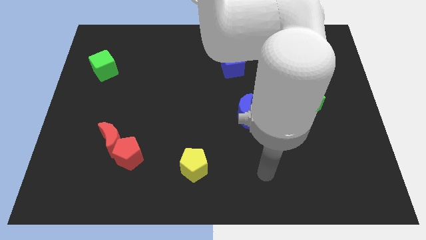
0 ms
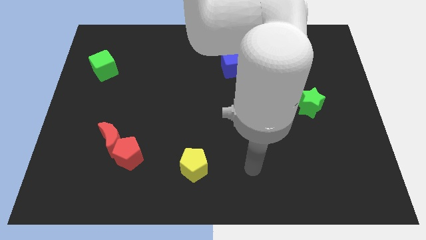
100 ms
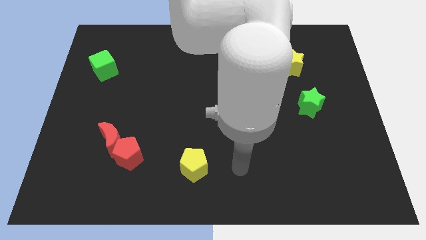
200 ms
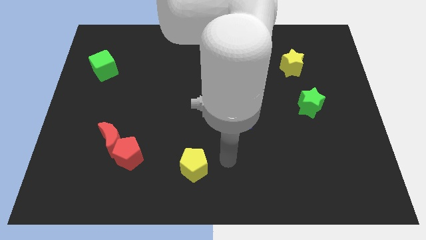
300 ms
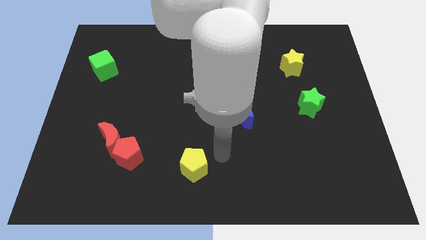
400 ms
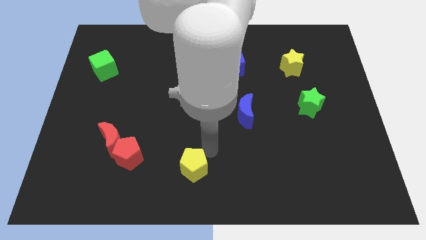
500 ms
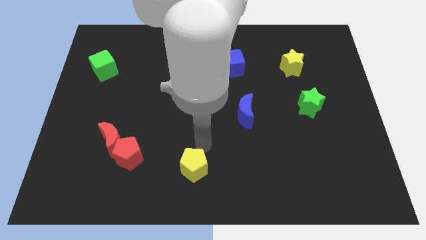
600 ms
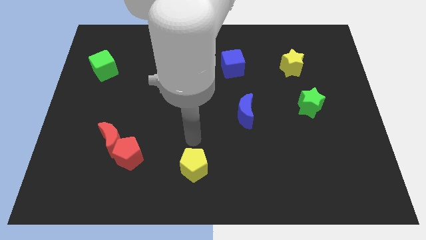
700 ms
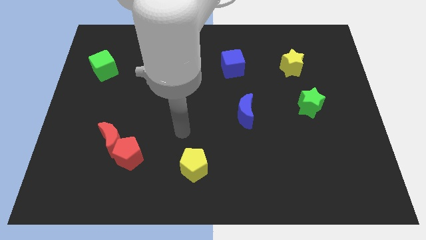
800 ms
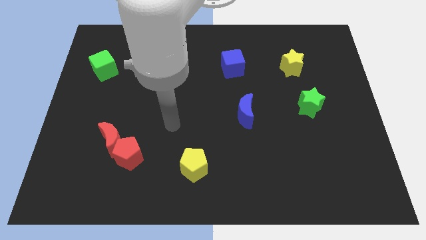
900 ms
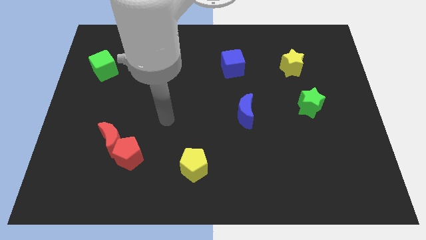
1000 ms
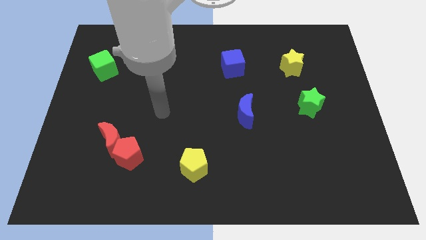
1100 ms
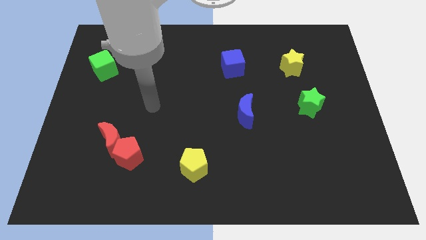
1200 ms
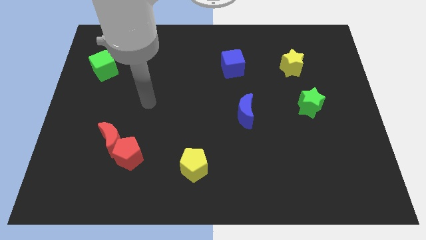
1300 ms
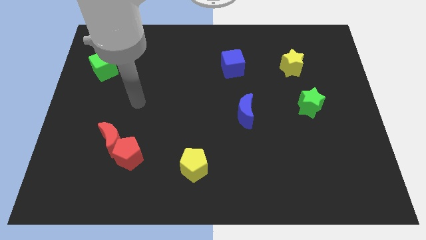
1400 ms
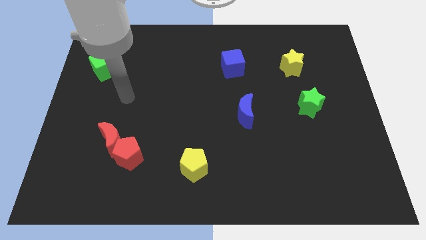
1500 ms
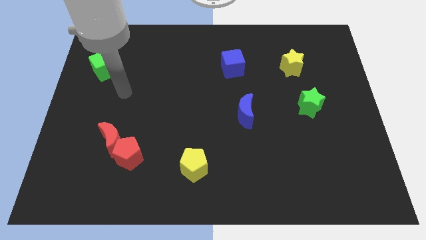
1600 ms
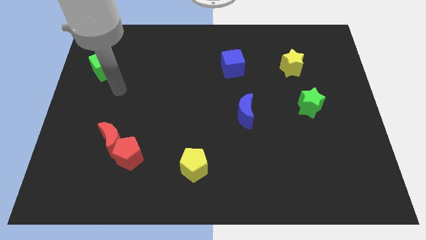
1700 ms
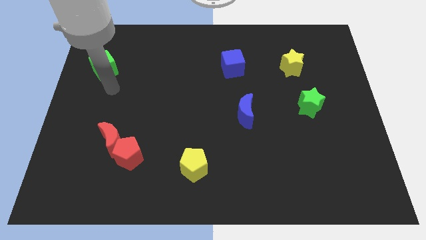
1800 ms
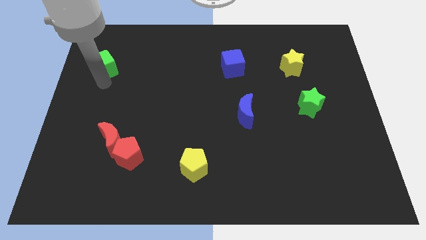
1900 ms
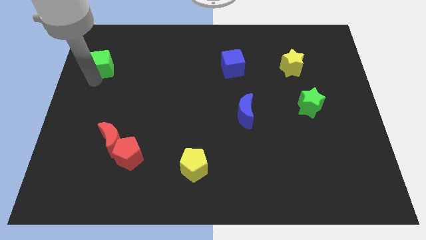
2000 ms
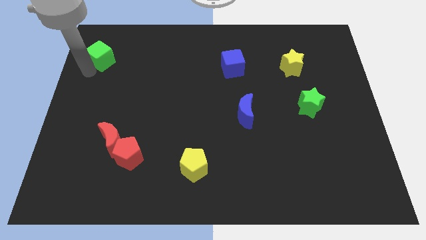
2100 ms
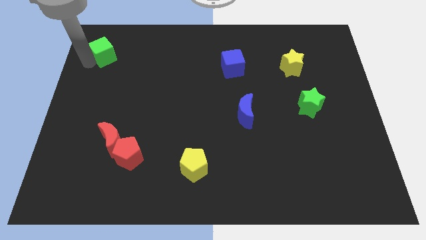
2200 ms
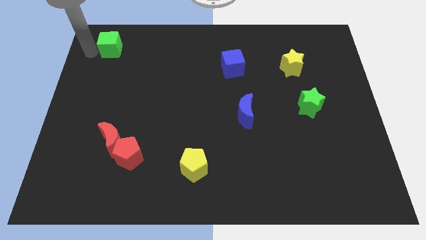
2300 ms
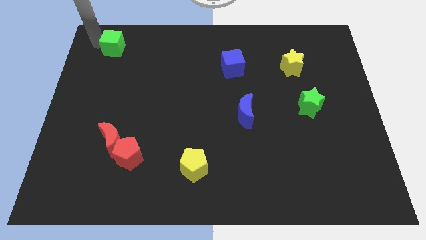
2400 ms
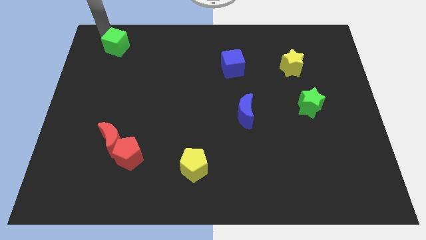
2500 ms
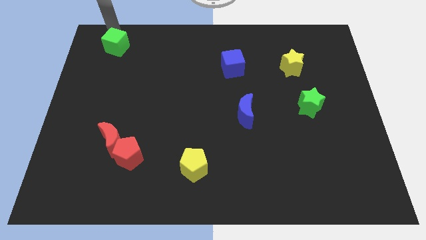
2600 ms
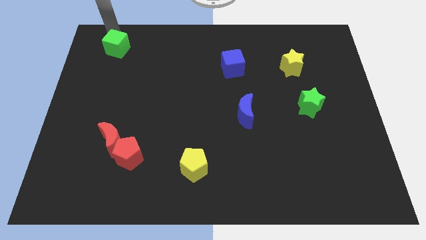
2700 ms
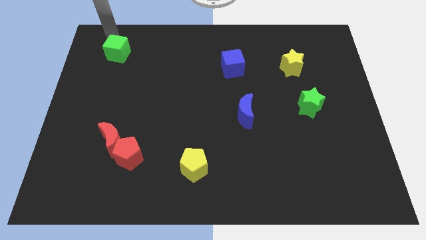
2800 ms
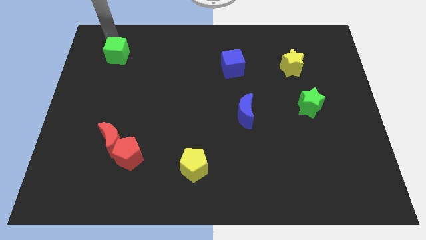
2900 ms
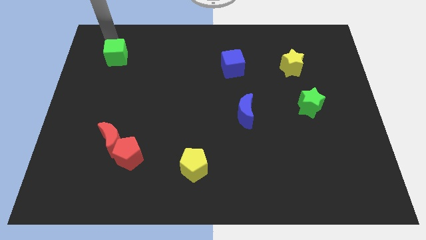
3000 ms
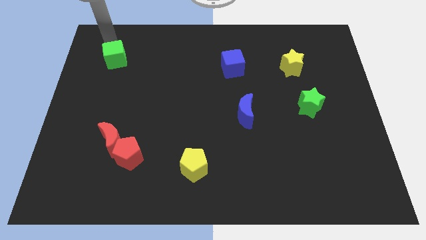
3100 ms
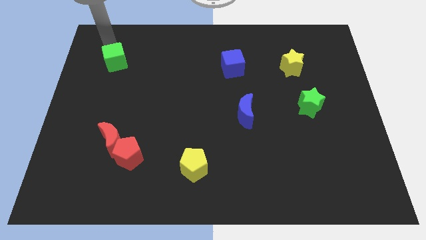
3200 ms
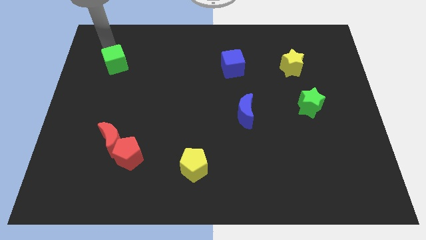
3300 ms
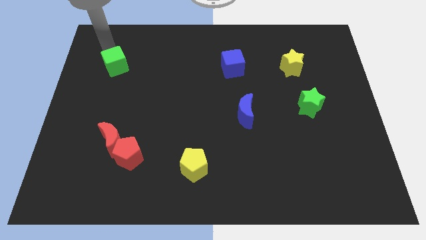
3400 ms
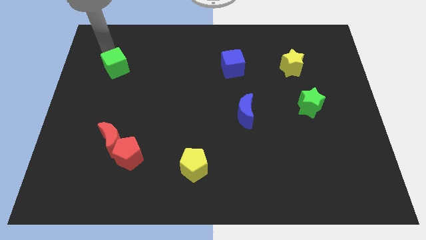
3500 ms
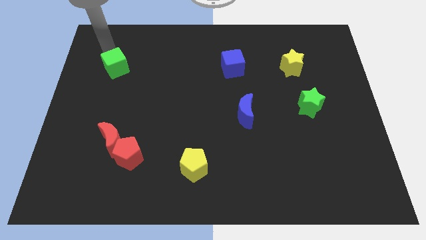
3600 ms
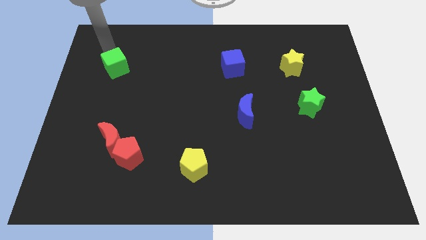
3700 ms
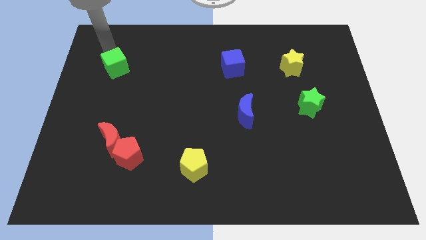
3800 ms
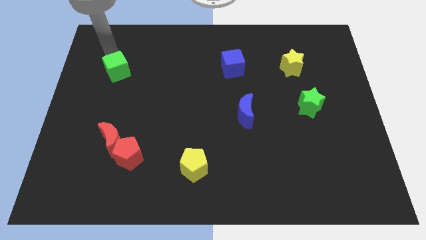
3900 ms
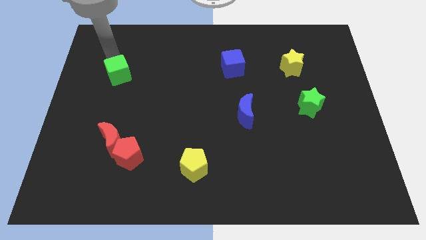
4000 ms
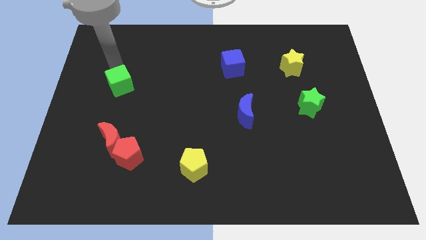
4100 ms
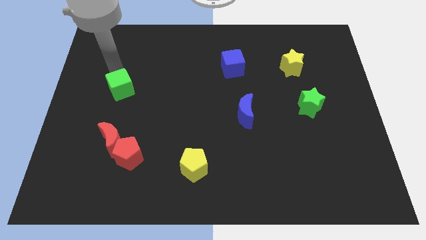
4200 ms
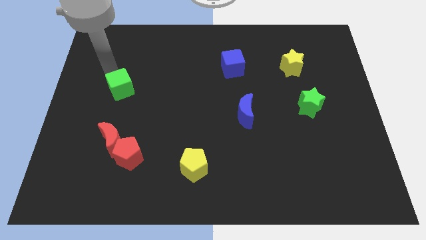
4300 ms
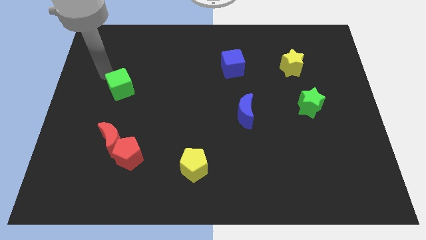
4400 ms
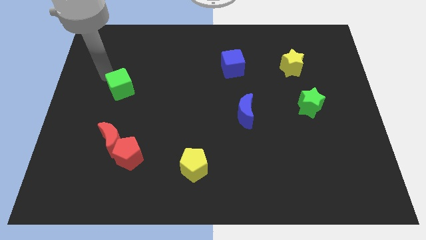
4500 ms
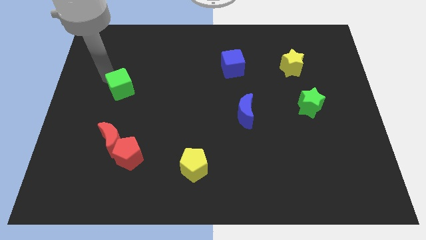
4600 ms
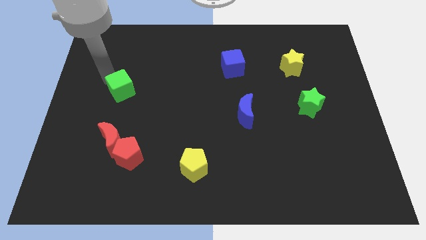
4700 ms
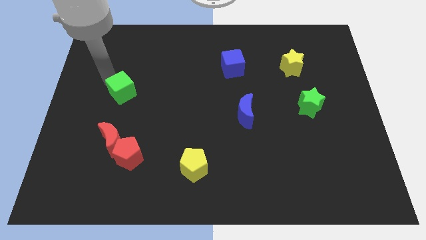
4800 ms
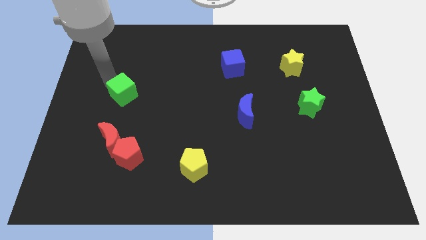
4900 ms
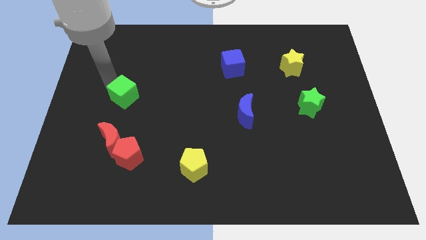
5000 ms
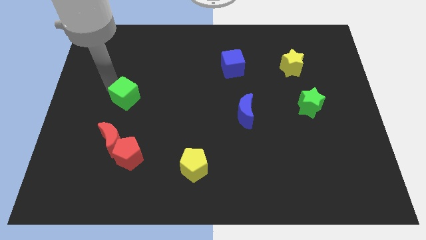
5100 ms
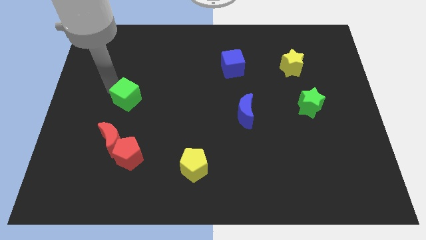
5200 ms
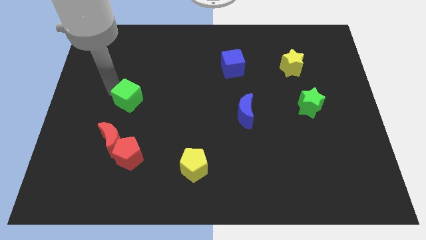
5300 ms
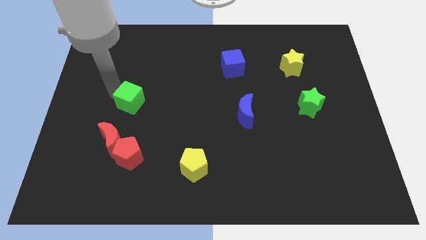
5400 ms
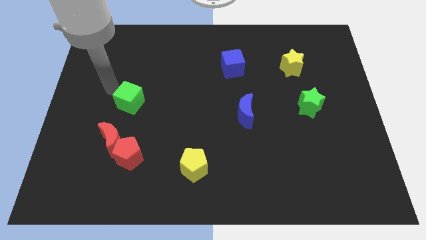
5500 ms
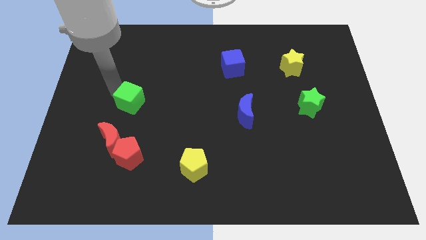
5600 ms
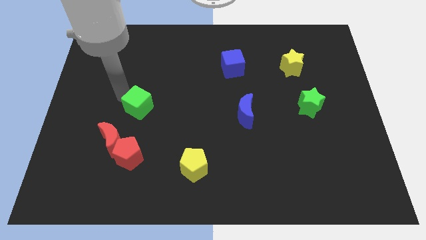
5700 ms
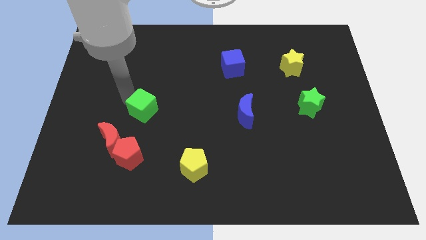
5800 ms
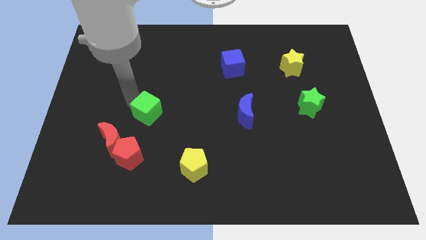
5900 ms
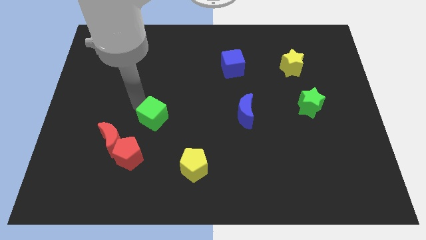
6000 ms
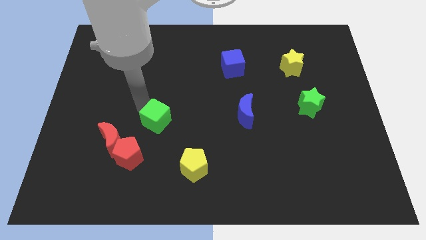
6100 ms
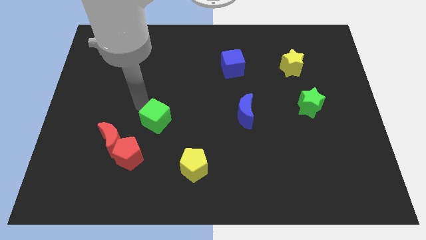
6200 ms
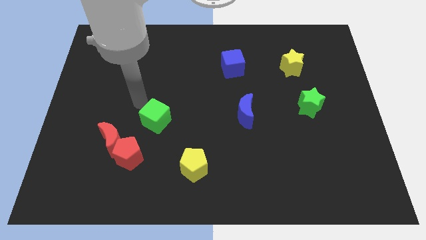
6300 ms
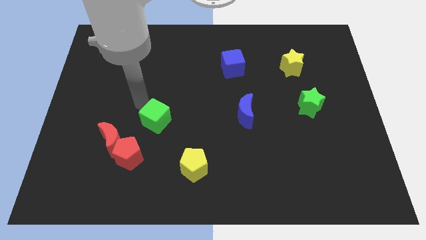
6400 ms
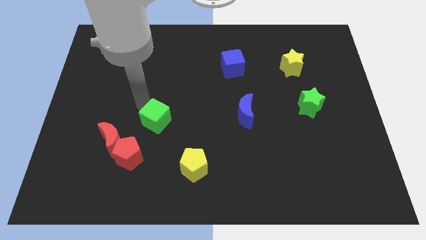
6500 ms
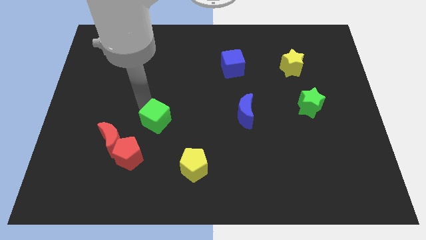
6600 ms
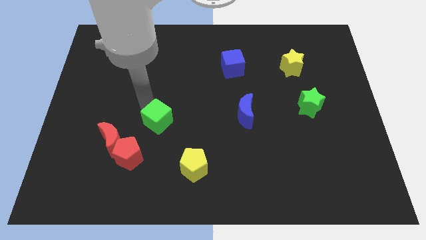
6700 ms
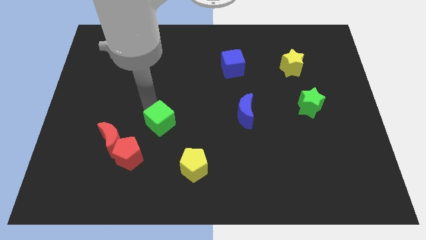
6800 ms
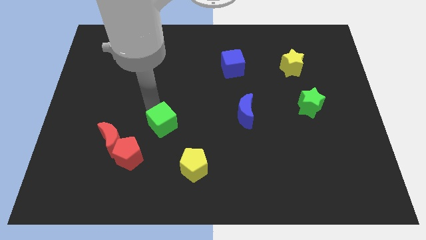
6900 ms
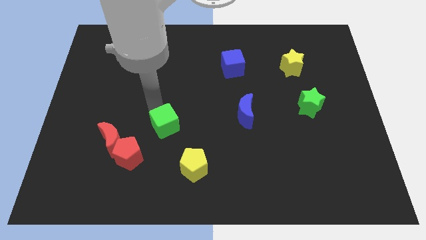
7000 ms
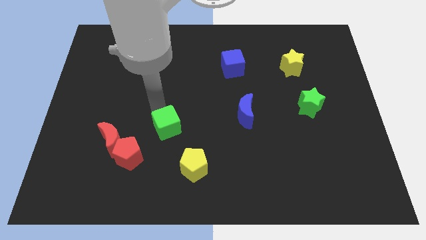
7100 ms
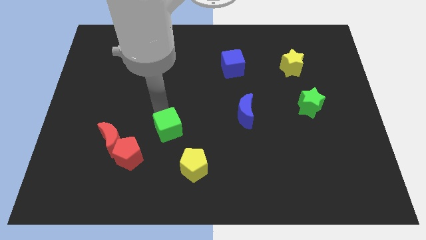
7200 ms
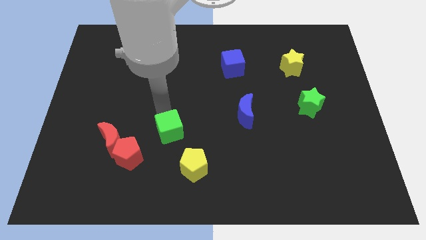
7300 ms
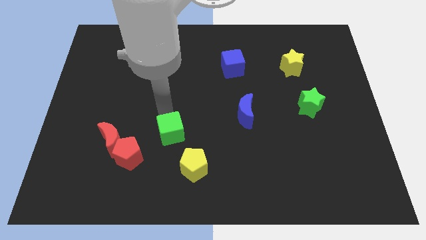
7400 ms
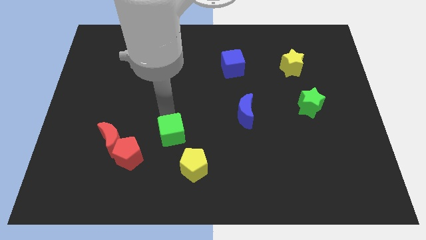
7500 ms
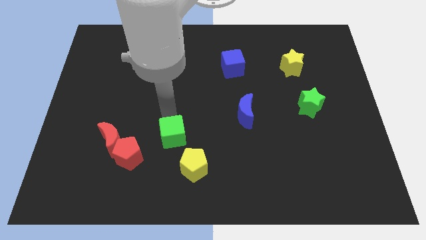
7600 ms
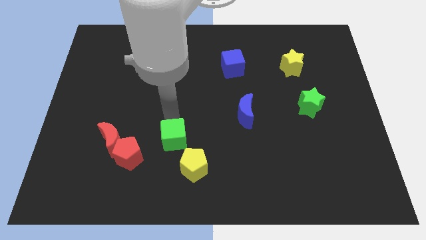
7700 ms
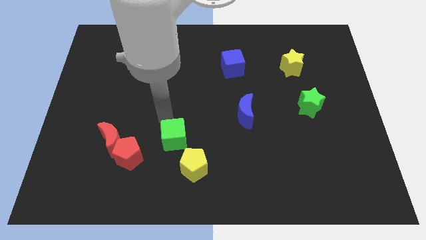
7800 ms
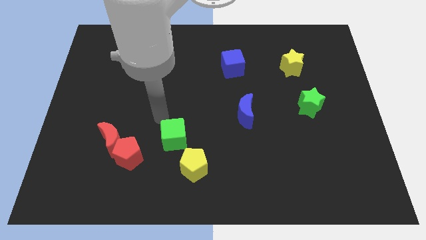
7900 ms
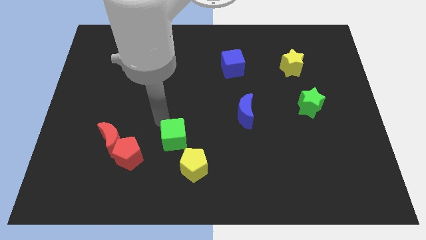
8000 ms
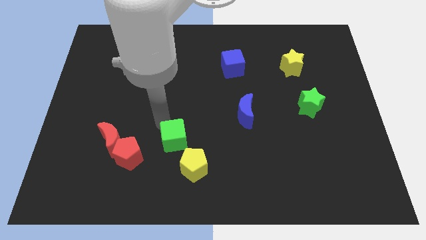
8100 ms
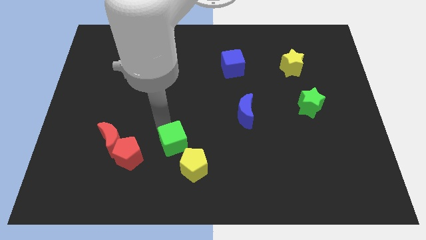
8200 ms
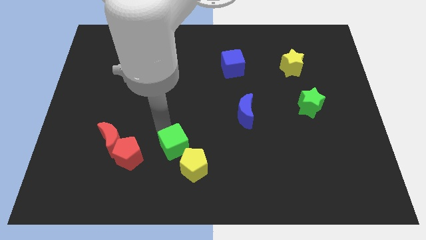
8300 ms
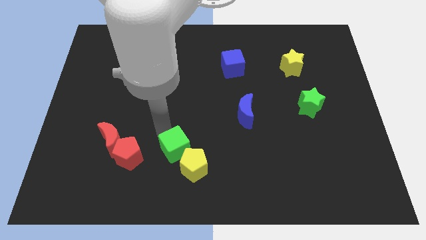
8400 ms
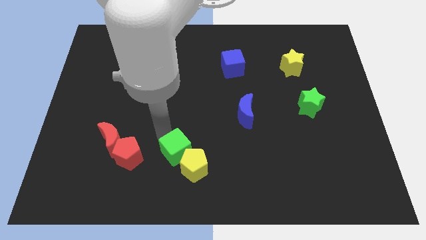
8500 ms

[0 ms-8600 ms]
slide the green cube towards the yellow pentagon
